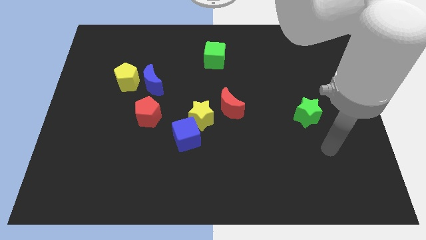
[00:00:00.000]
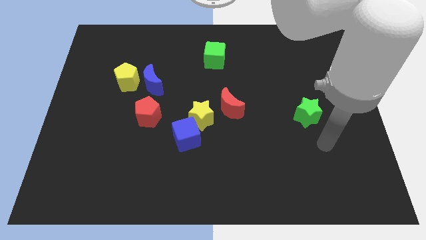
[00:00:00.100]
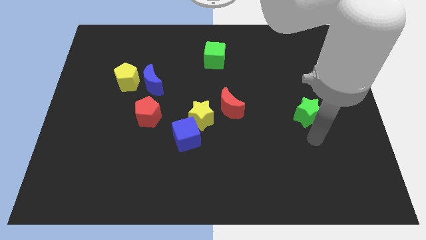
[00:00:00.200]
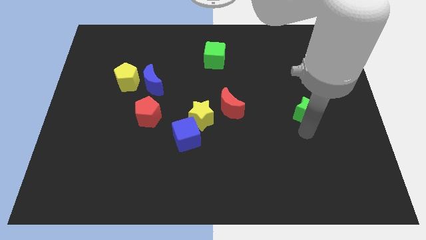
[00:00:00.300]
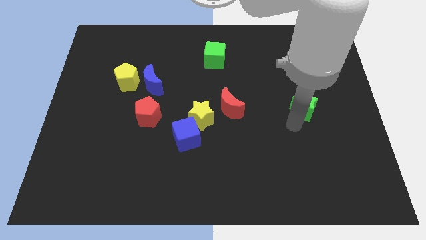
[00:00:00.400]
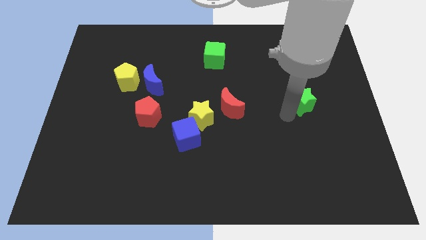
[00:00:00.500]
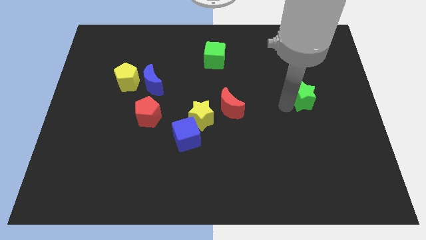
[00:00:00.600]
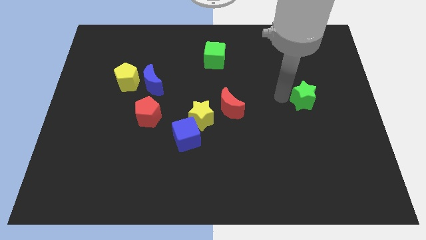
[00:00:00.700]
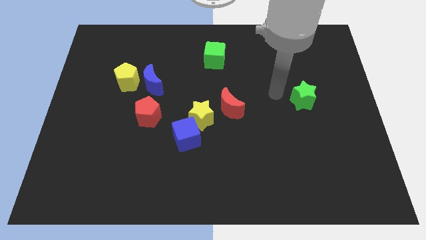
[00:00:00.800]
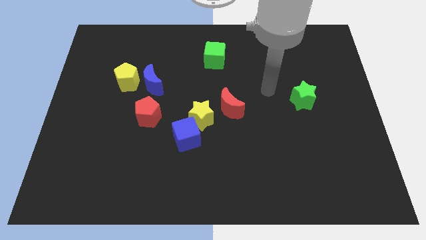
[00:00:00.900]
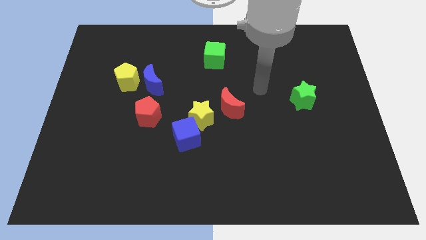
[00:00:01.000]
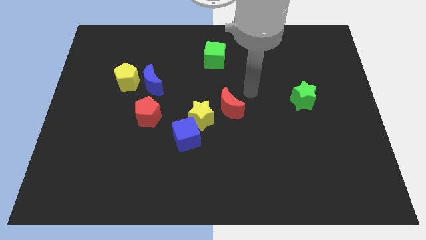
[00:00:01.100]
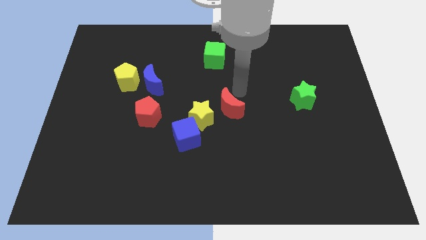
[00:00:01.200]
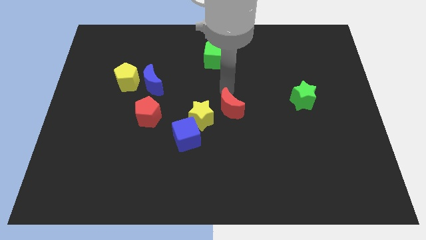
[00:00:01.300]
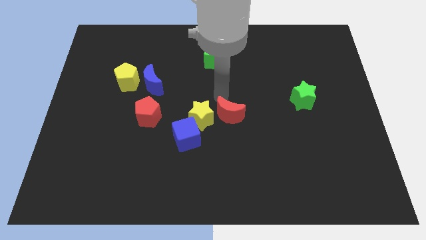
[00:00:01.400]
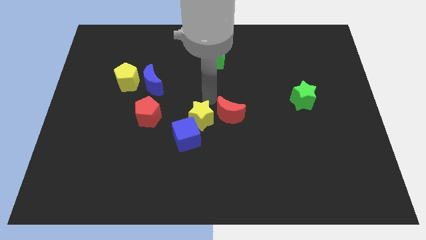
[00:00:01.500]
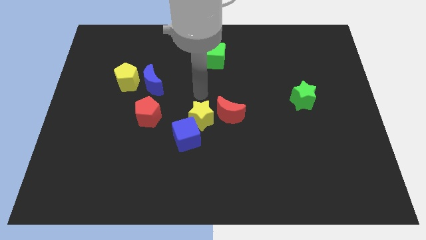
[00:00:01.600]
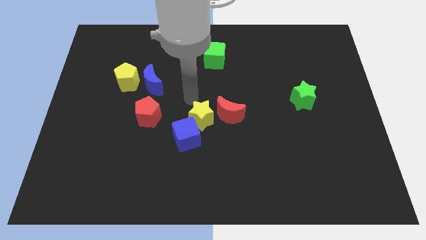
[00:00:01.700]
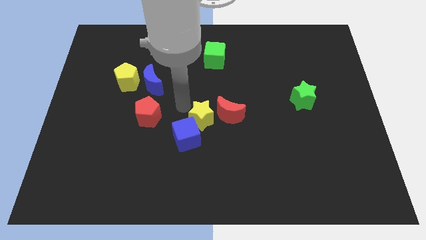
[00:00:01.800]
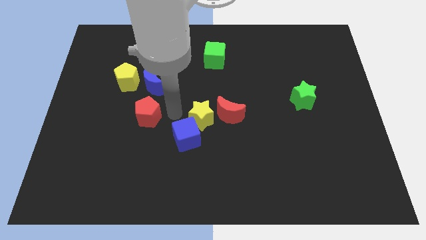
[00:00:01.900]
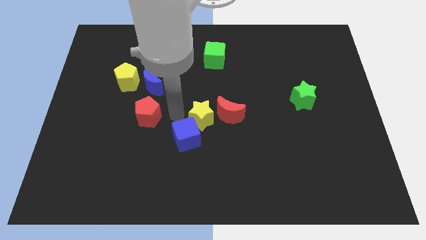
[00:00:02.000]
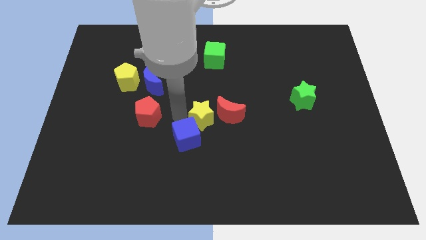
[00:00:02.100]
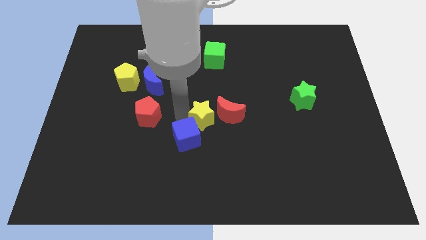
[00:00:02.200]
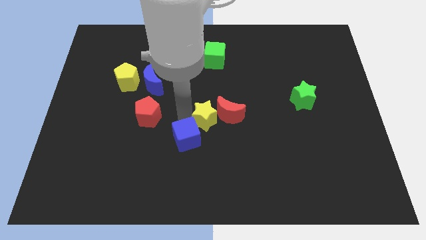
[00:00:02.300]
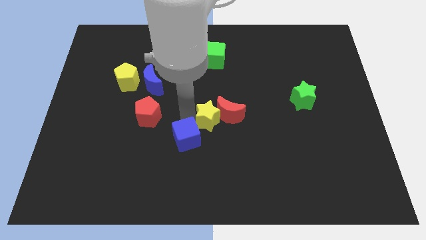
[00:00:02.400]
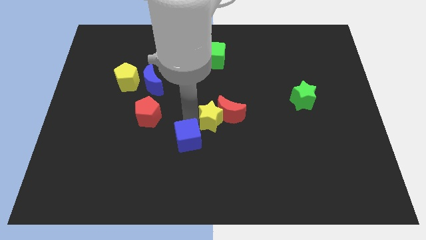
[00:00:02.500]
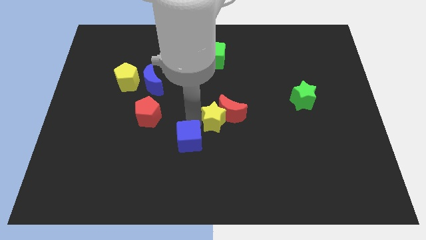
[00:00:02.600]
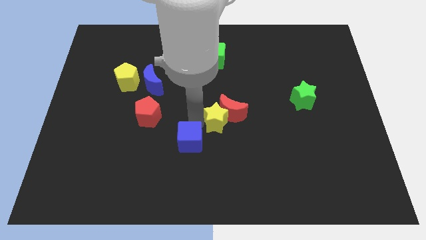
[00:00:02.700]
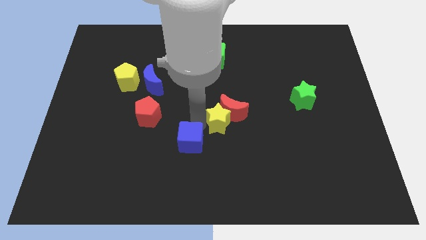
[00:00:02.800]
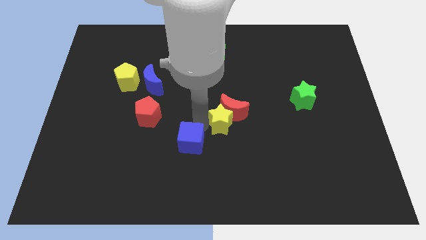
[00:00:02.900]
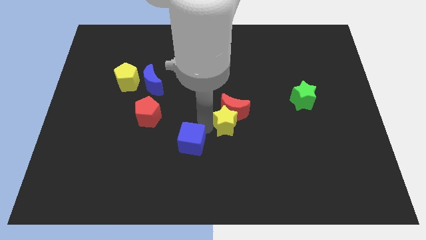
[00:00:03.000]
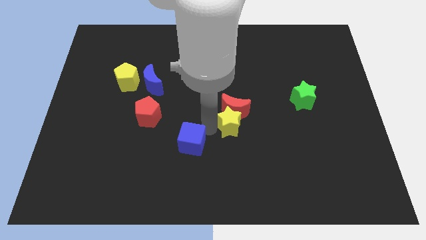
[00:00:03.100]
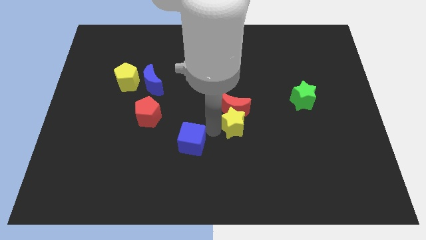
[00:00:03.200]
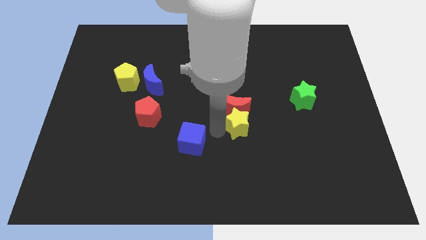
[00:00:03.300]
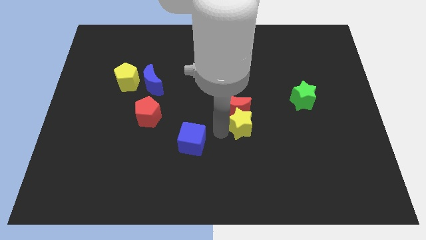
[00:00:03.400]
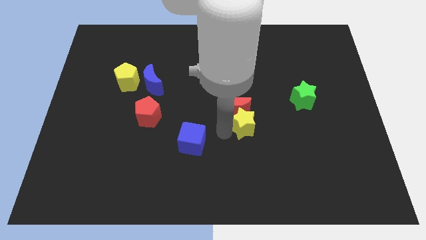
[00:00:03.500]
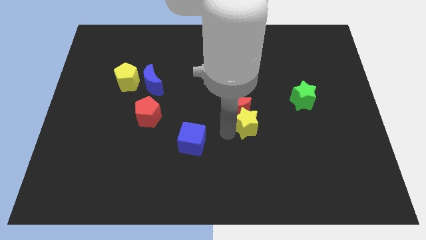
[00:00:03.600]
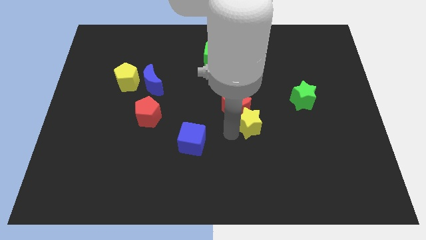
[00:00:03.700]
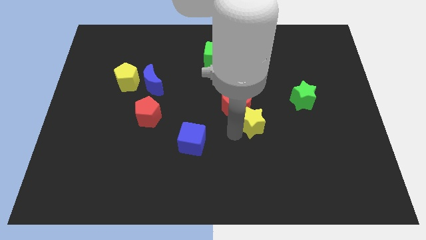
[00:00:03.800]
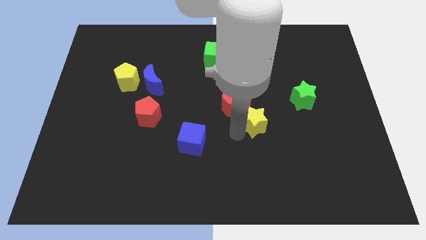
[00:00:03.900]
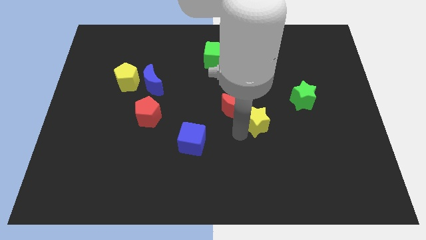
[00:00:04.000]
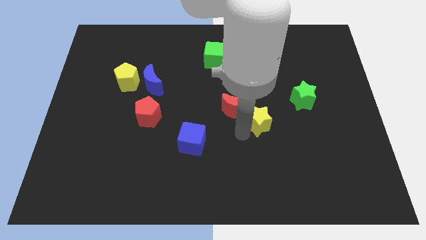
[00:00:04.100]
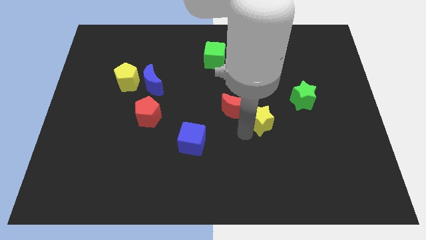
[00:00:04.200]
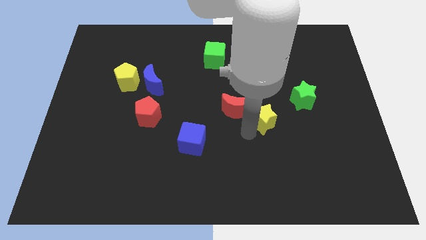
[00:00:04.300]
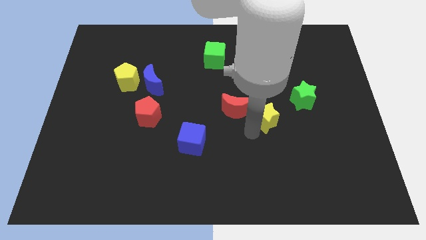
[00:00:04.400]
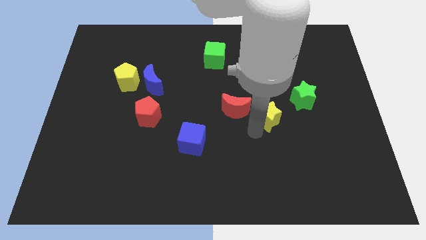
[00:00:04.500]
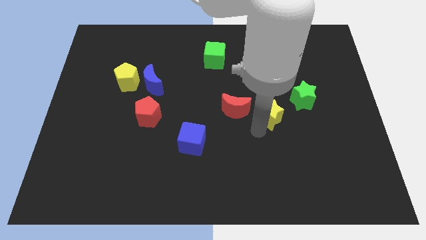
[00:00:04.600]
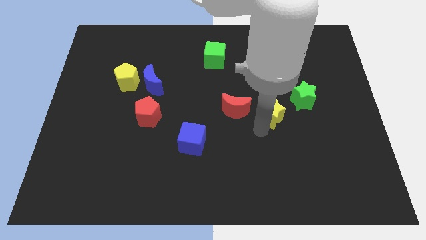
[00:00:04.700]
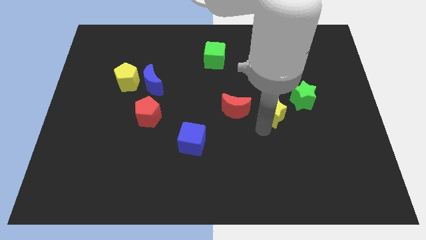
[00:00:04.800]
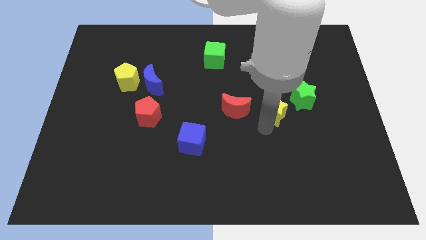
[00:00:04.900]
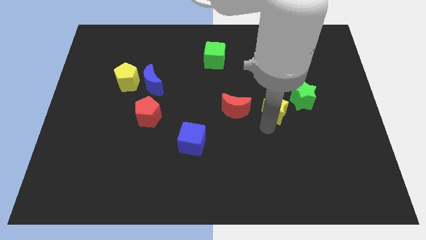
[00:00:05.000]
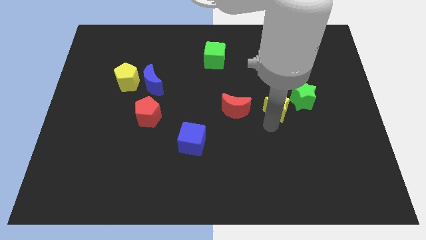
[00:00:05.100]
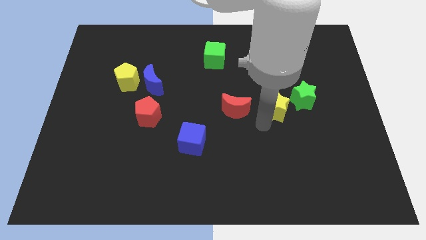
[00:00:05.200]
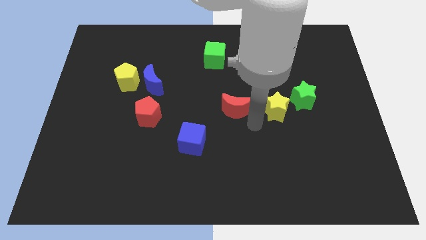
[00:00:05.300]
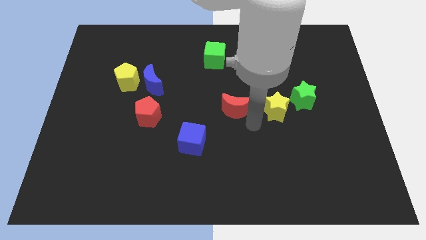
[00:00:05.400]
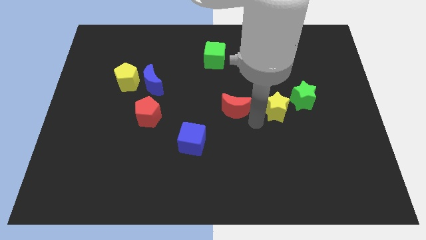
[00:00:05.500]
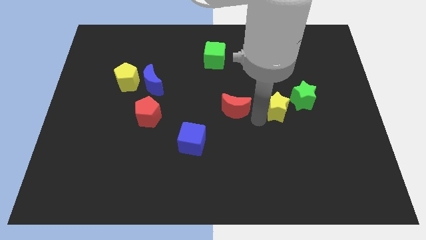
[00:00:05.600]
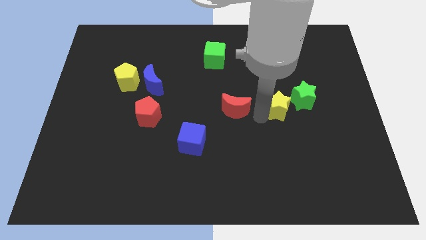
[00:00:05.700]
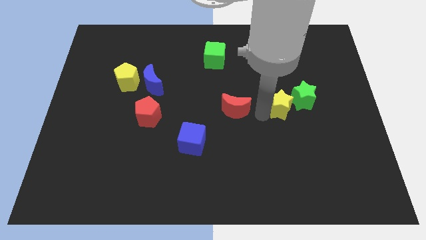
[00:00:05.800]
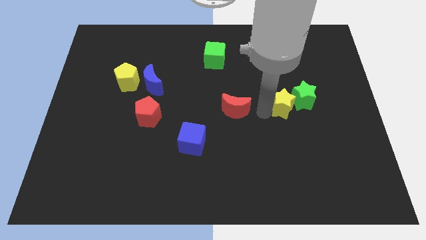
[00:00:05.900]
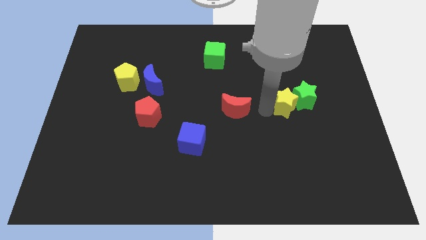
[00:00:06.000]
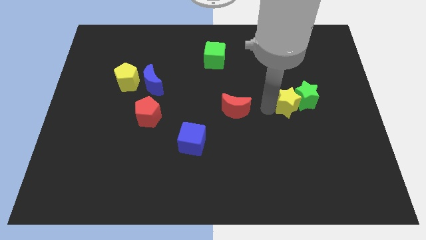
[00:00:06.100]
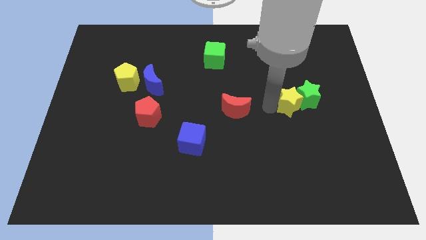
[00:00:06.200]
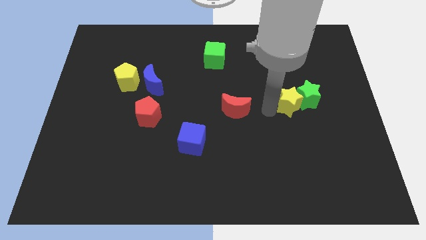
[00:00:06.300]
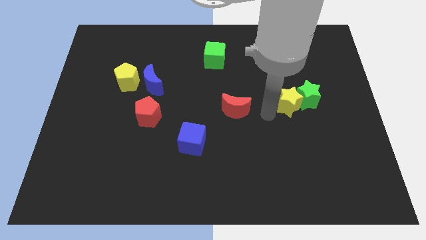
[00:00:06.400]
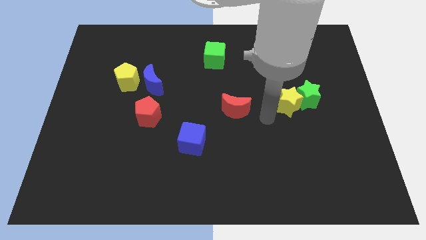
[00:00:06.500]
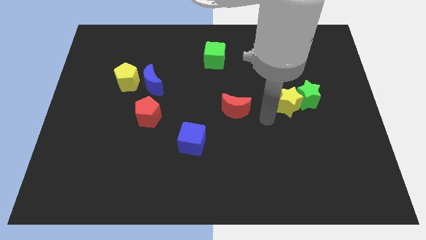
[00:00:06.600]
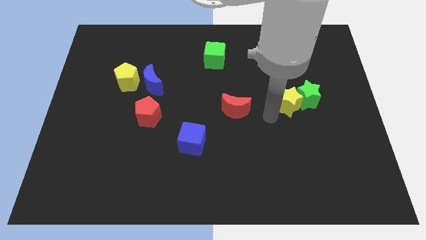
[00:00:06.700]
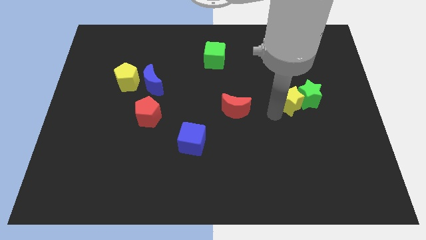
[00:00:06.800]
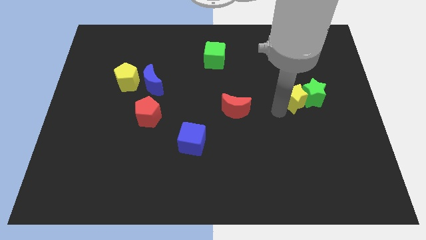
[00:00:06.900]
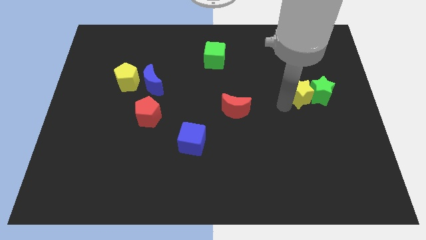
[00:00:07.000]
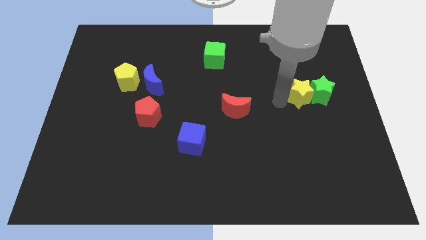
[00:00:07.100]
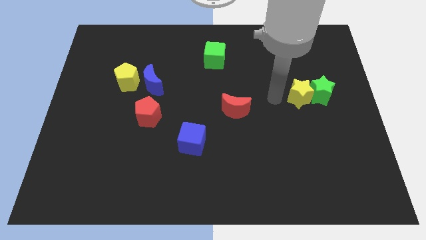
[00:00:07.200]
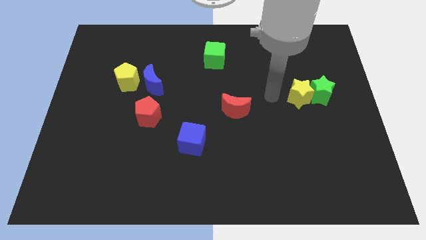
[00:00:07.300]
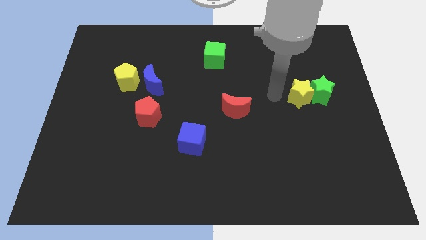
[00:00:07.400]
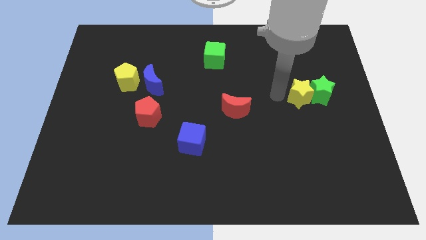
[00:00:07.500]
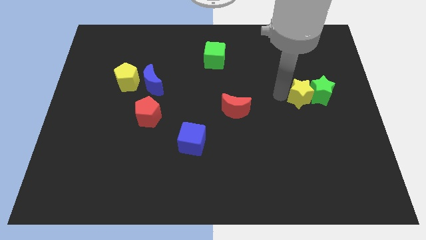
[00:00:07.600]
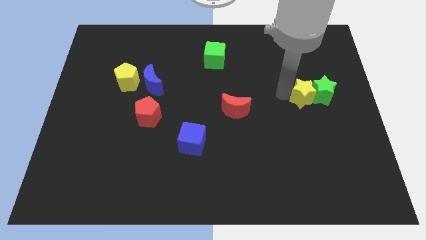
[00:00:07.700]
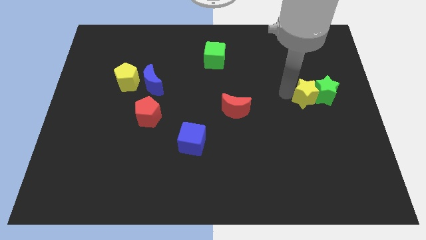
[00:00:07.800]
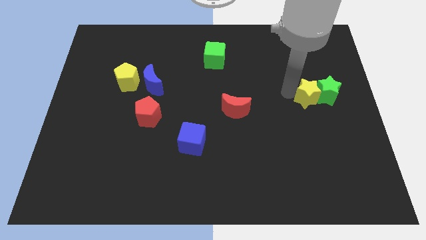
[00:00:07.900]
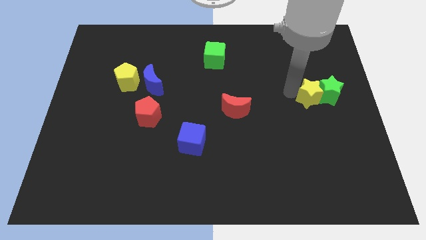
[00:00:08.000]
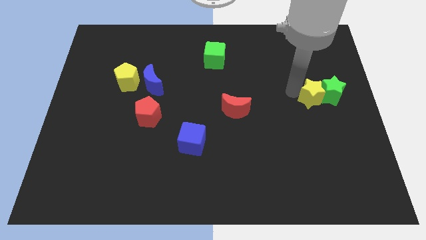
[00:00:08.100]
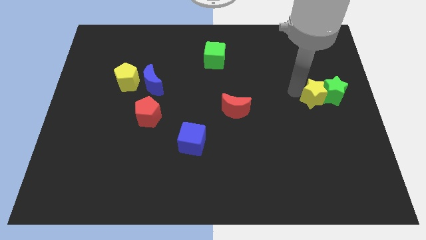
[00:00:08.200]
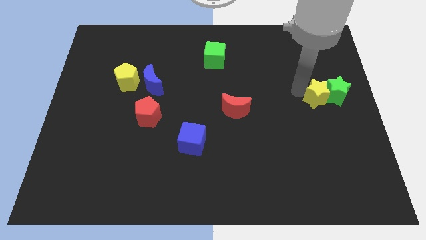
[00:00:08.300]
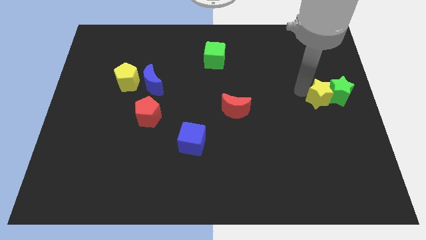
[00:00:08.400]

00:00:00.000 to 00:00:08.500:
slide the yellow star to the right side
